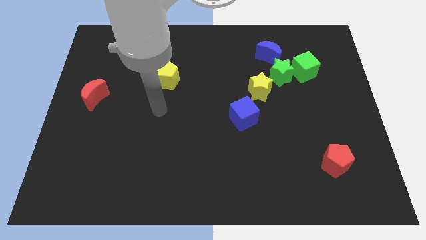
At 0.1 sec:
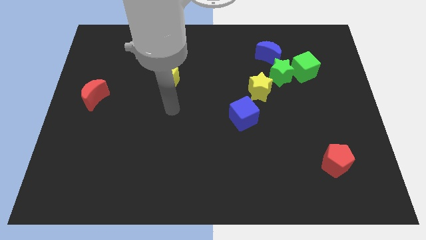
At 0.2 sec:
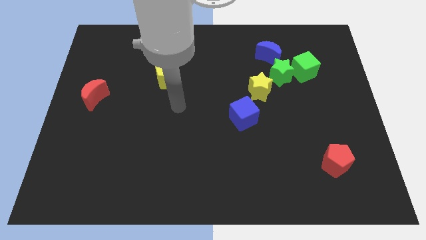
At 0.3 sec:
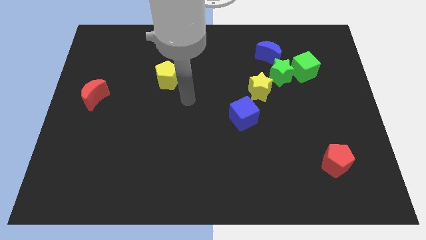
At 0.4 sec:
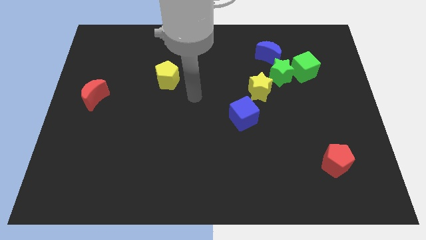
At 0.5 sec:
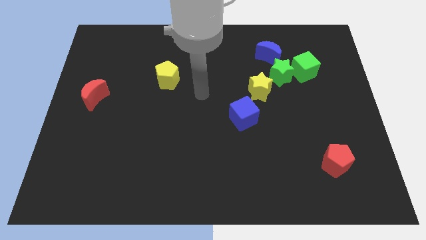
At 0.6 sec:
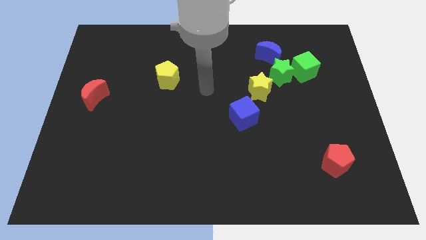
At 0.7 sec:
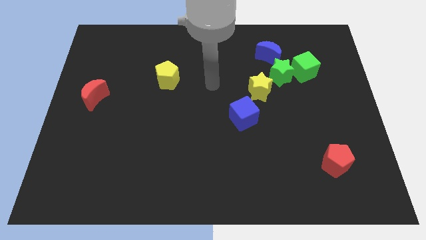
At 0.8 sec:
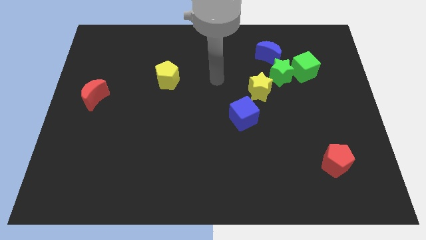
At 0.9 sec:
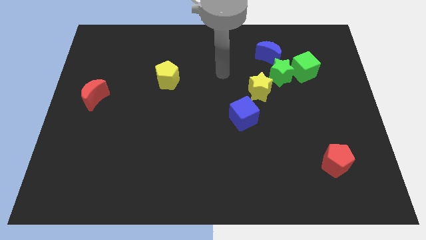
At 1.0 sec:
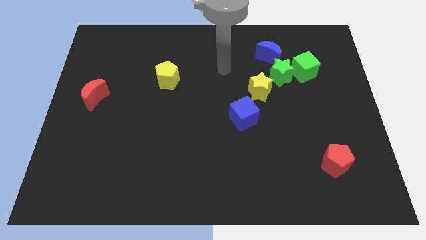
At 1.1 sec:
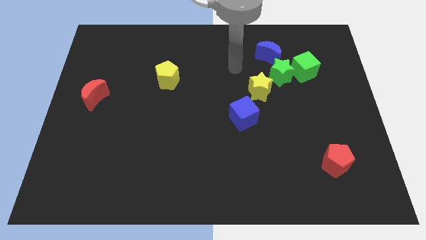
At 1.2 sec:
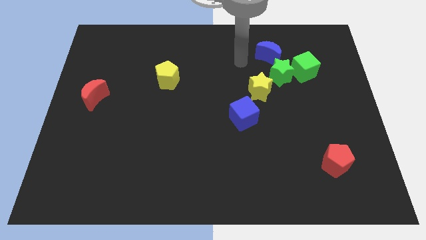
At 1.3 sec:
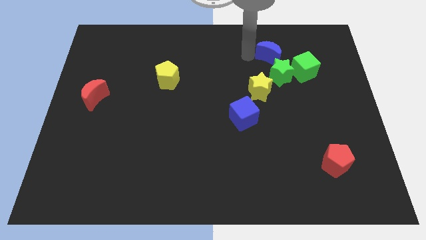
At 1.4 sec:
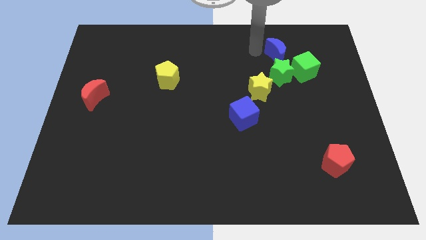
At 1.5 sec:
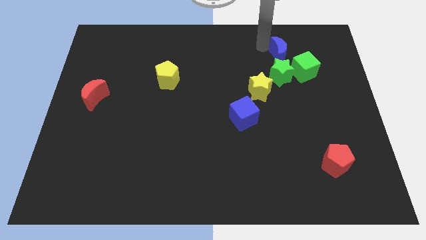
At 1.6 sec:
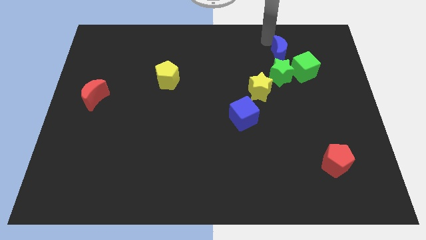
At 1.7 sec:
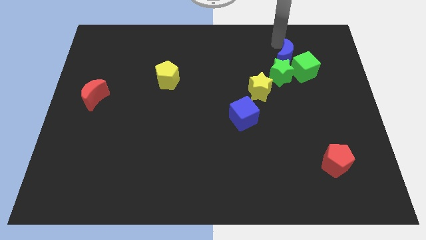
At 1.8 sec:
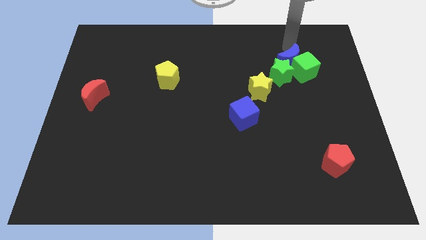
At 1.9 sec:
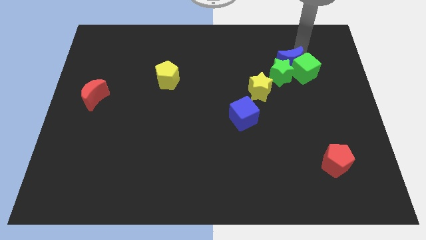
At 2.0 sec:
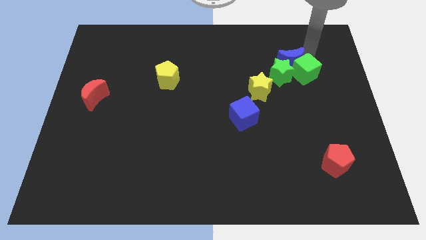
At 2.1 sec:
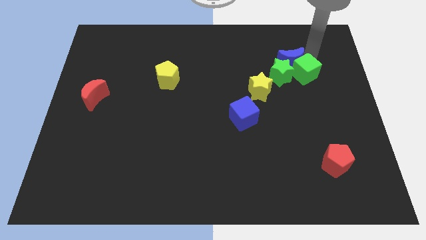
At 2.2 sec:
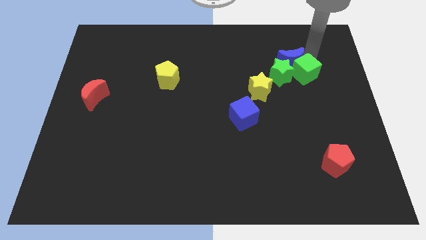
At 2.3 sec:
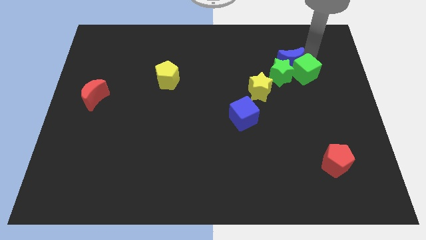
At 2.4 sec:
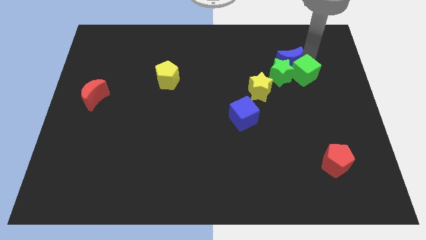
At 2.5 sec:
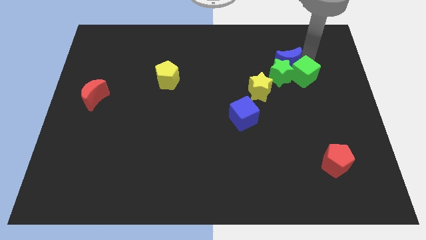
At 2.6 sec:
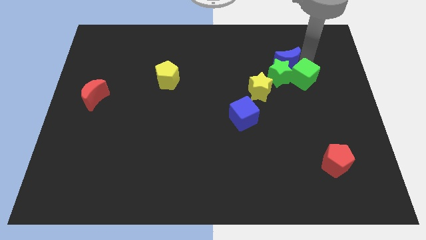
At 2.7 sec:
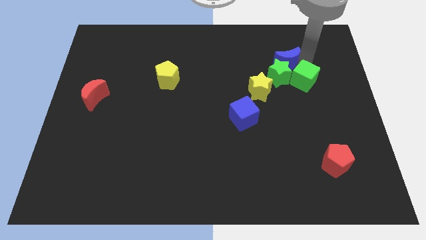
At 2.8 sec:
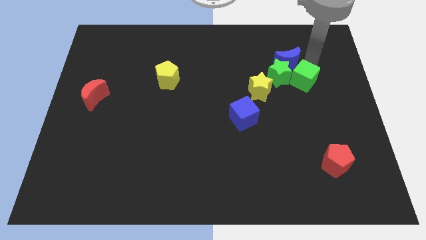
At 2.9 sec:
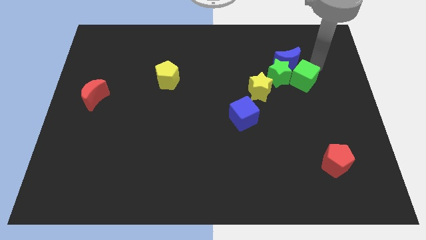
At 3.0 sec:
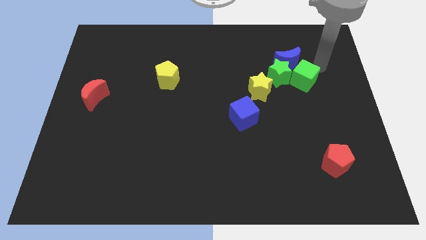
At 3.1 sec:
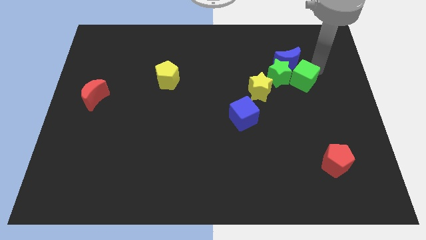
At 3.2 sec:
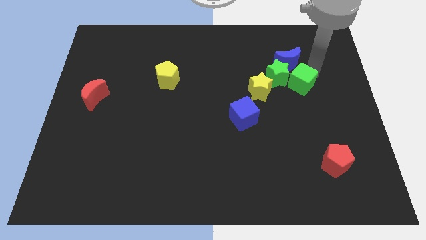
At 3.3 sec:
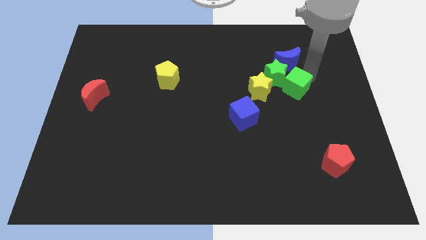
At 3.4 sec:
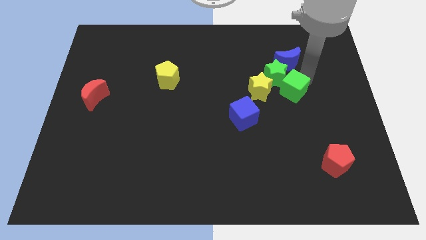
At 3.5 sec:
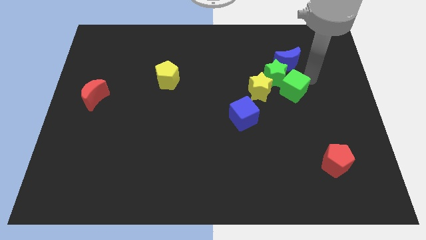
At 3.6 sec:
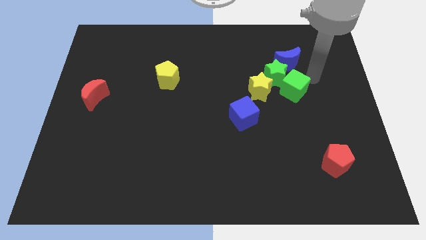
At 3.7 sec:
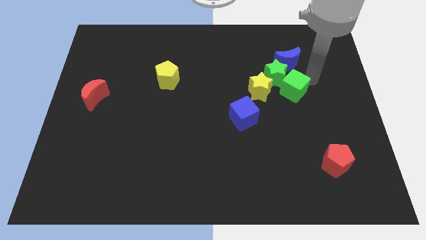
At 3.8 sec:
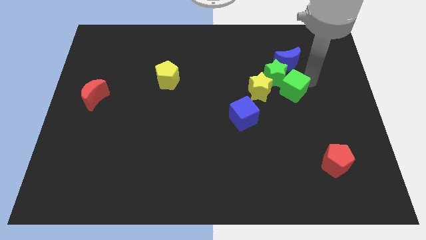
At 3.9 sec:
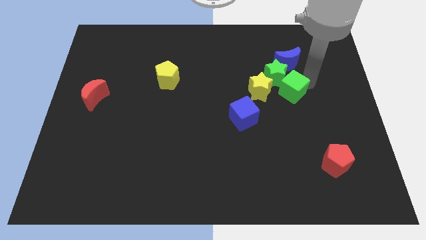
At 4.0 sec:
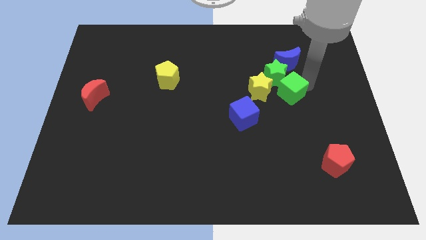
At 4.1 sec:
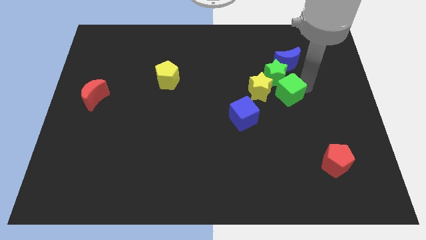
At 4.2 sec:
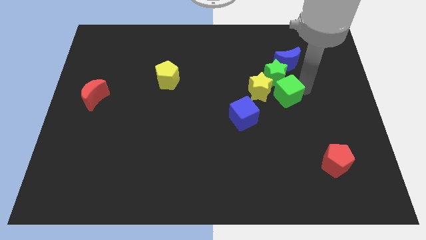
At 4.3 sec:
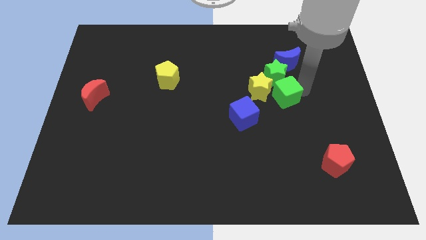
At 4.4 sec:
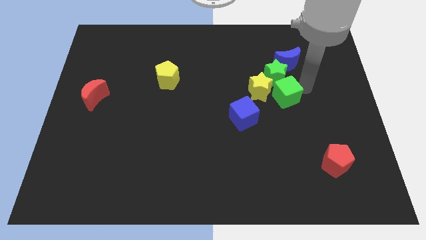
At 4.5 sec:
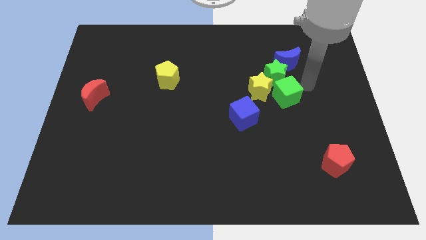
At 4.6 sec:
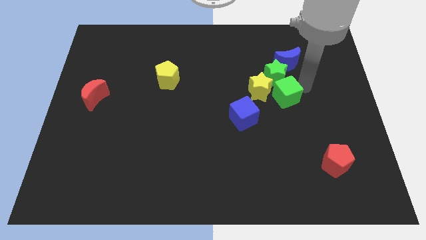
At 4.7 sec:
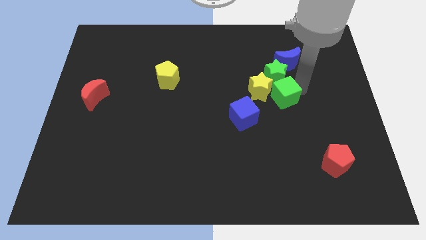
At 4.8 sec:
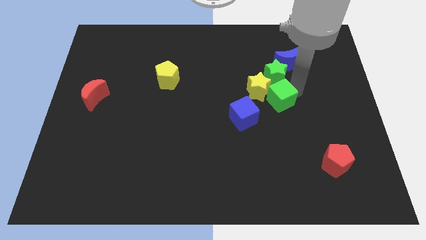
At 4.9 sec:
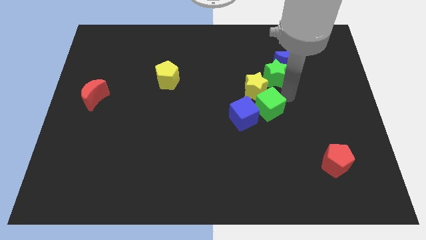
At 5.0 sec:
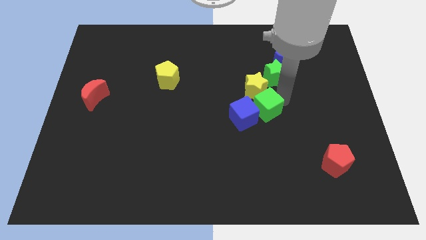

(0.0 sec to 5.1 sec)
move the green cube close to the blue cube

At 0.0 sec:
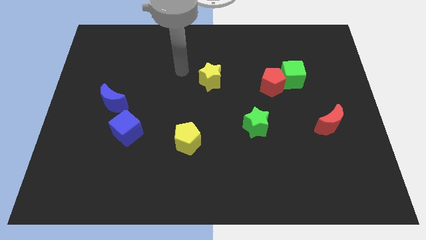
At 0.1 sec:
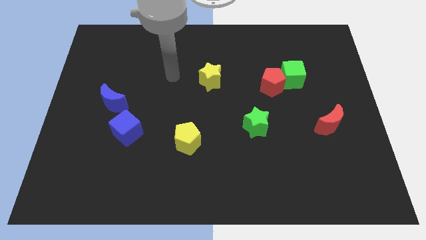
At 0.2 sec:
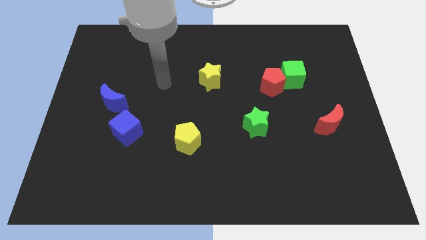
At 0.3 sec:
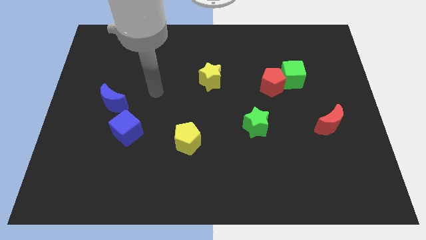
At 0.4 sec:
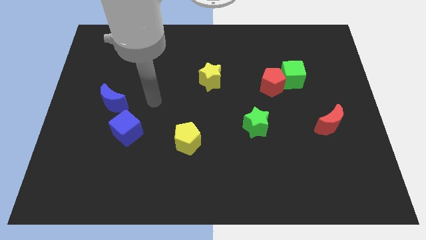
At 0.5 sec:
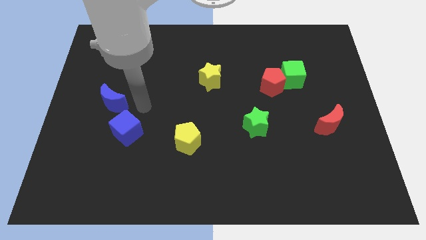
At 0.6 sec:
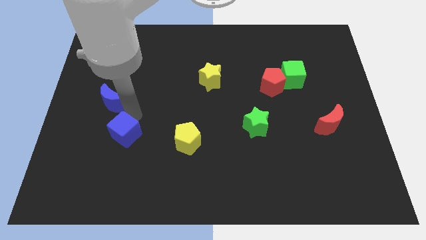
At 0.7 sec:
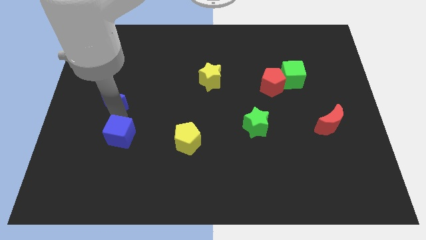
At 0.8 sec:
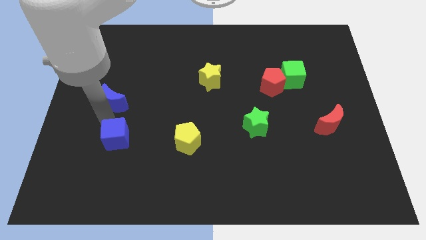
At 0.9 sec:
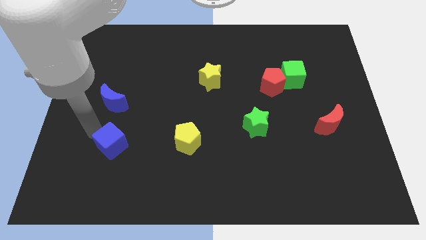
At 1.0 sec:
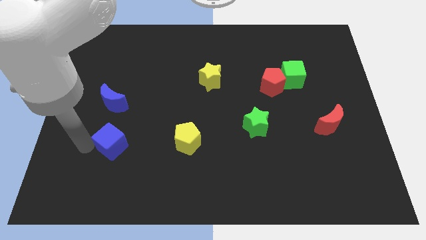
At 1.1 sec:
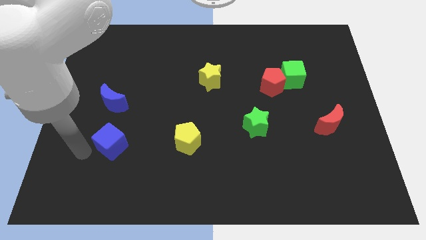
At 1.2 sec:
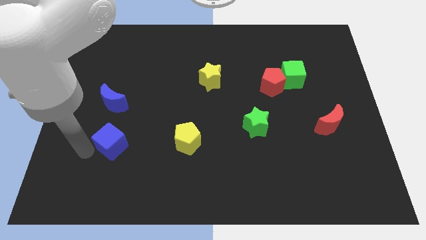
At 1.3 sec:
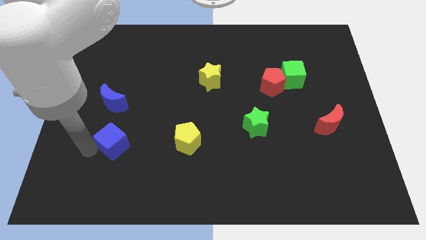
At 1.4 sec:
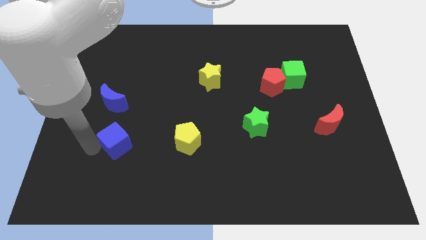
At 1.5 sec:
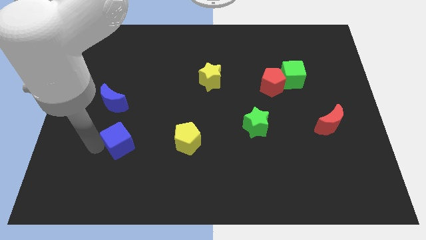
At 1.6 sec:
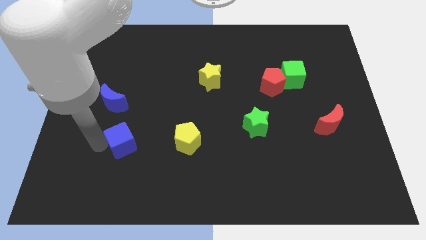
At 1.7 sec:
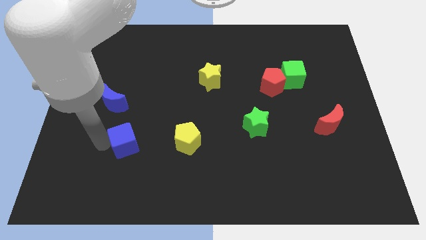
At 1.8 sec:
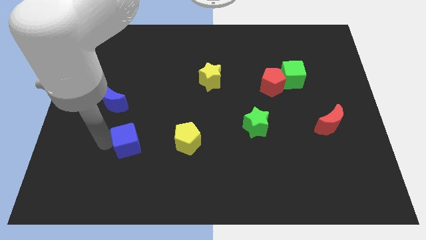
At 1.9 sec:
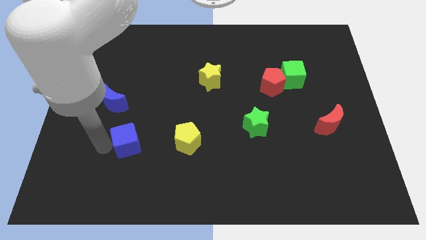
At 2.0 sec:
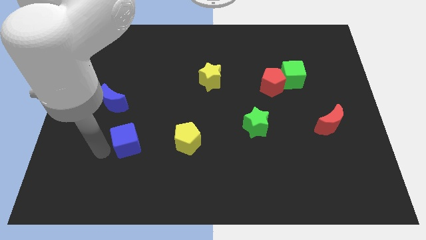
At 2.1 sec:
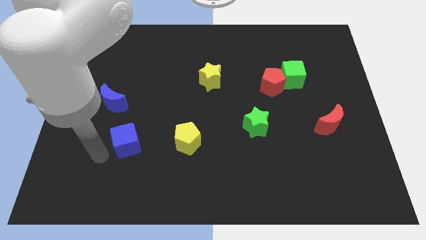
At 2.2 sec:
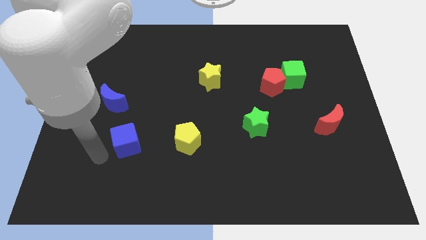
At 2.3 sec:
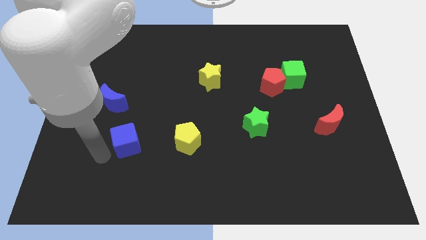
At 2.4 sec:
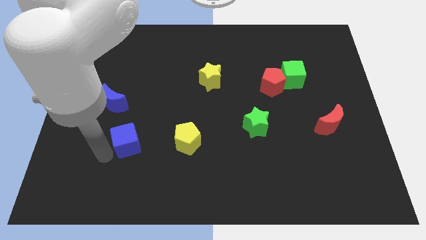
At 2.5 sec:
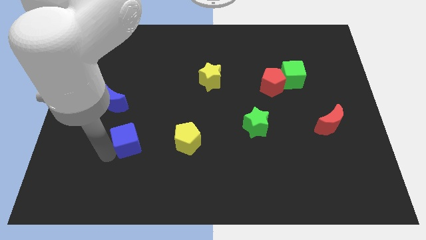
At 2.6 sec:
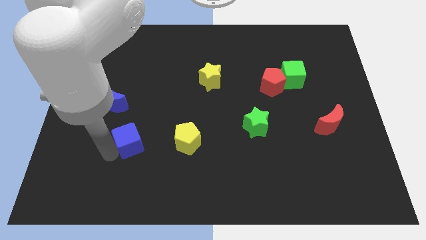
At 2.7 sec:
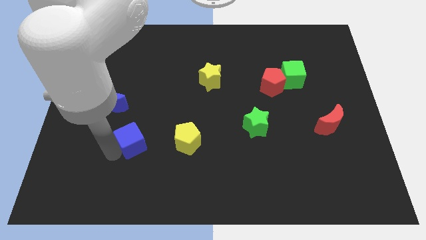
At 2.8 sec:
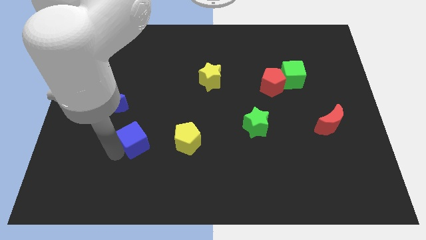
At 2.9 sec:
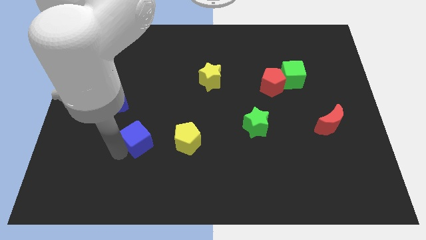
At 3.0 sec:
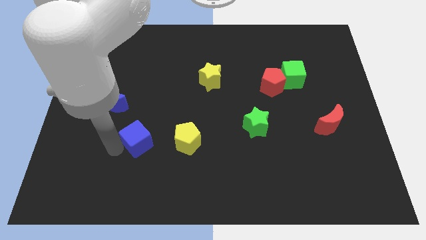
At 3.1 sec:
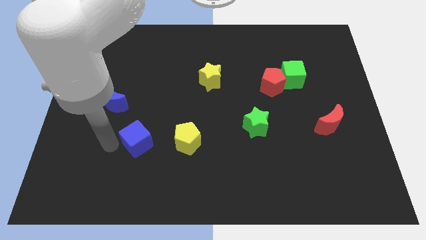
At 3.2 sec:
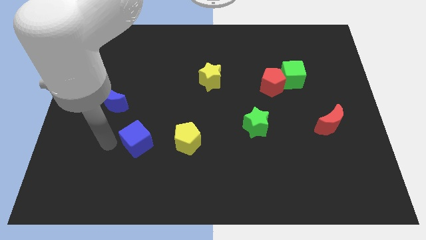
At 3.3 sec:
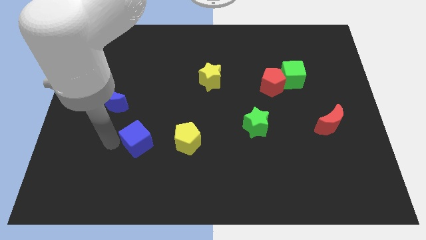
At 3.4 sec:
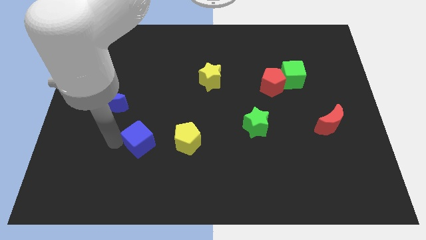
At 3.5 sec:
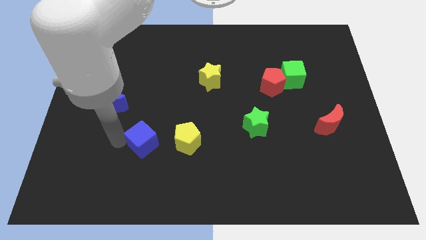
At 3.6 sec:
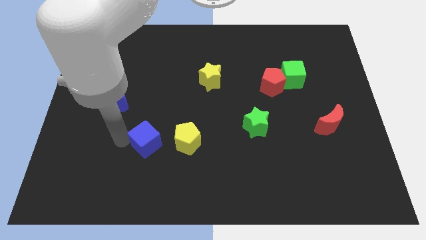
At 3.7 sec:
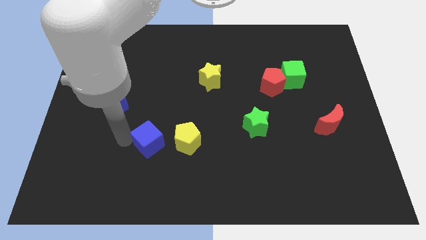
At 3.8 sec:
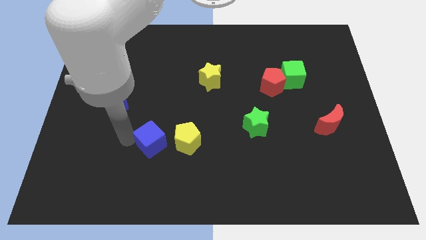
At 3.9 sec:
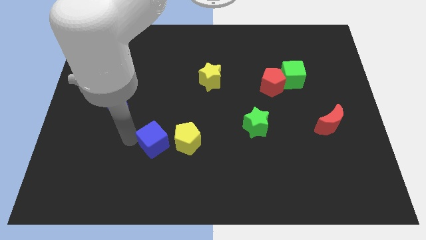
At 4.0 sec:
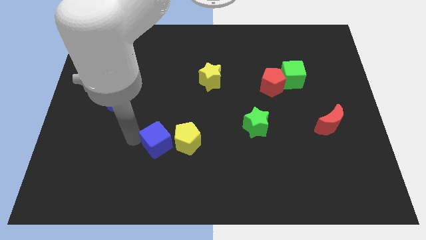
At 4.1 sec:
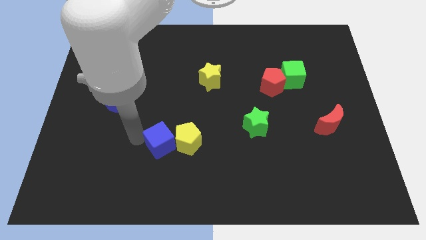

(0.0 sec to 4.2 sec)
move the blue cube next to the yellow pentagon
